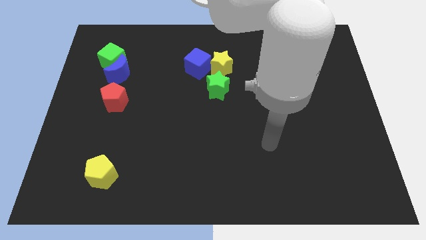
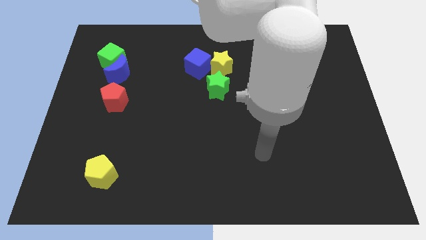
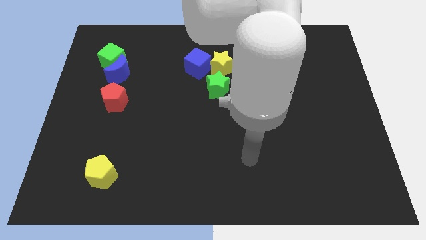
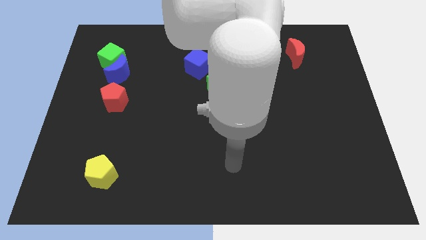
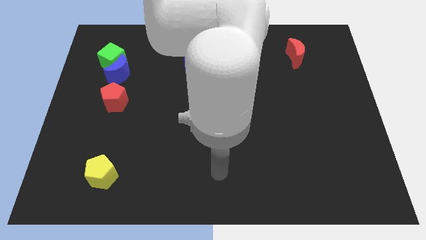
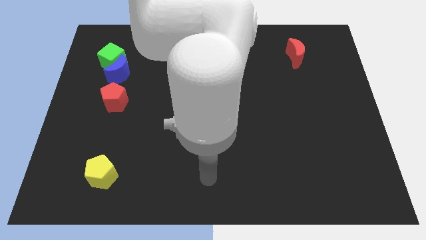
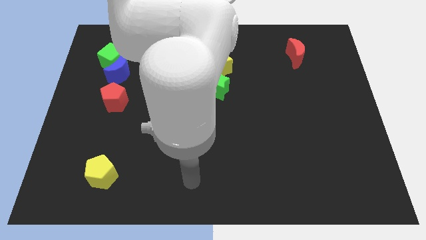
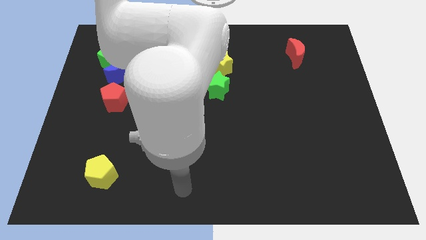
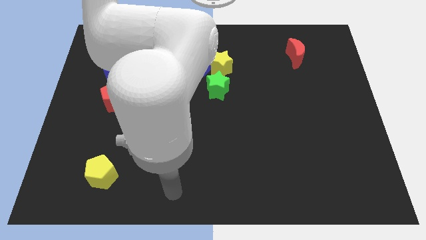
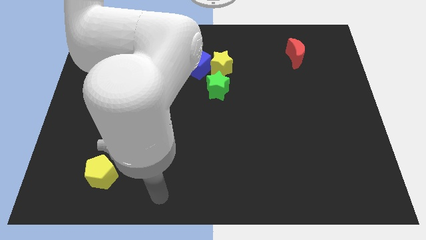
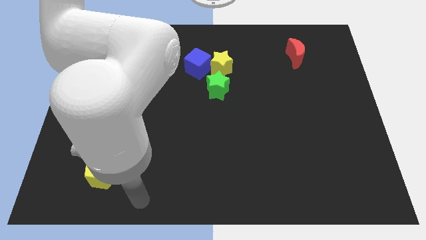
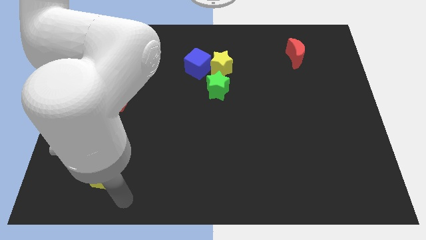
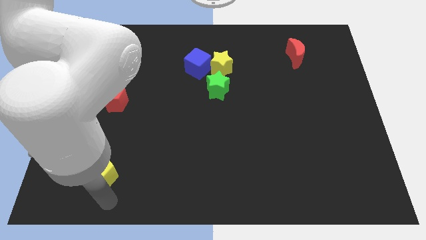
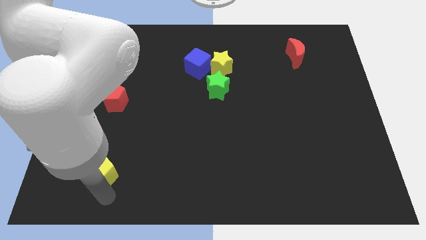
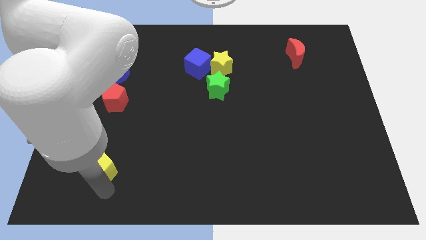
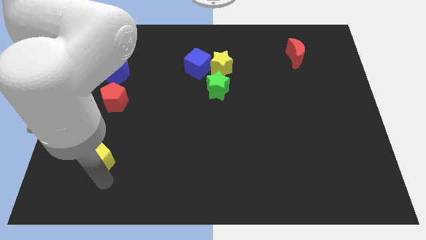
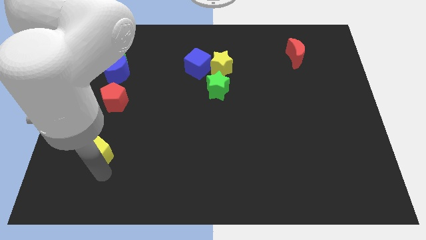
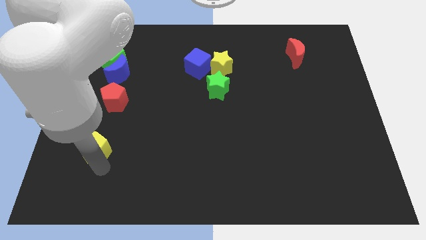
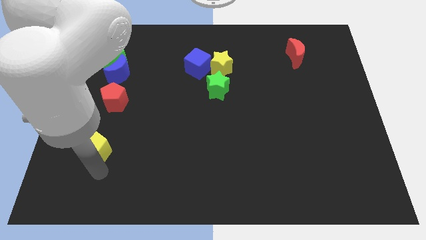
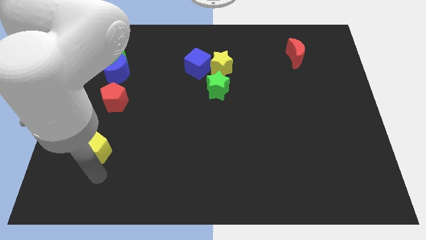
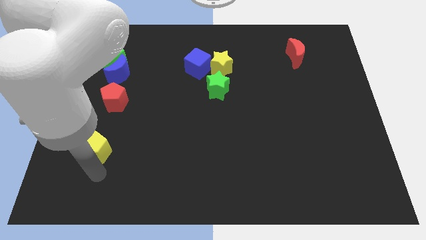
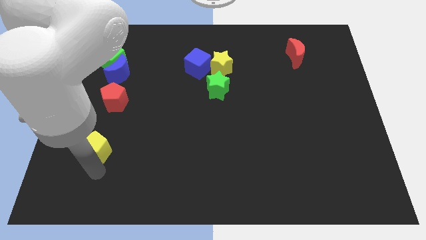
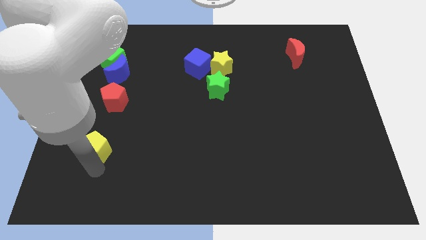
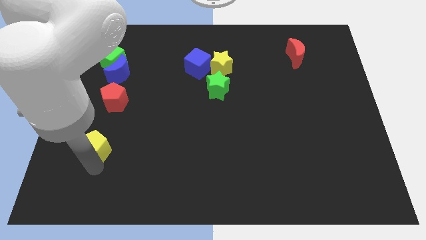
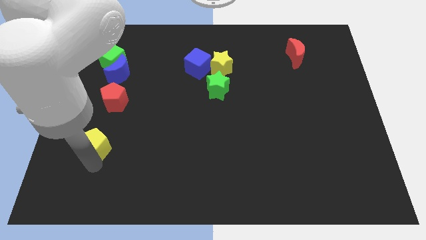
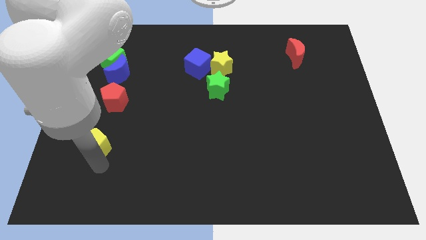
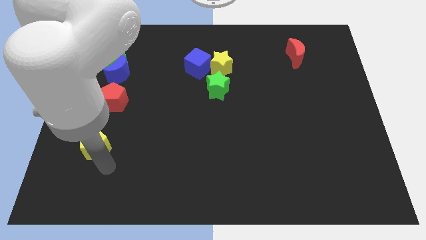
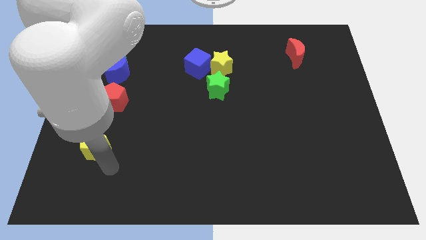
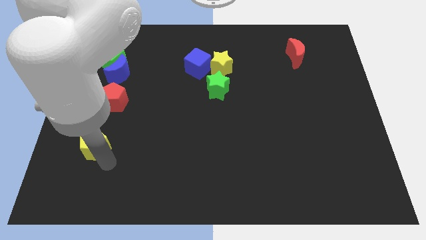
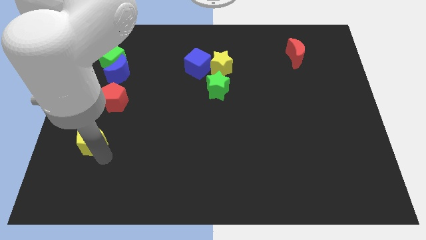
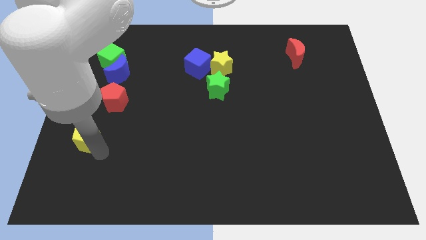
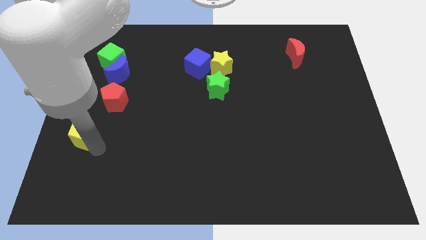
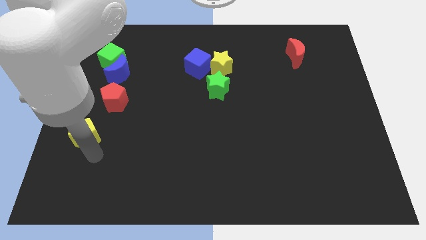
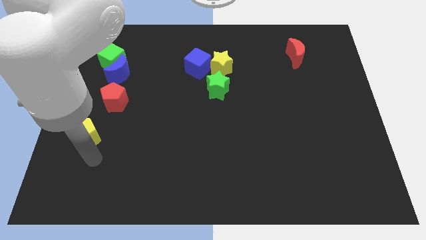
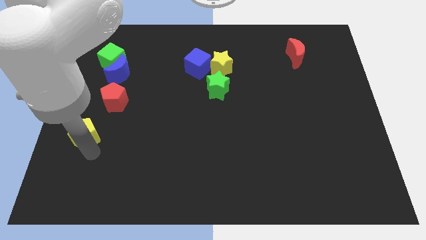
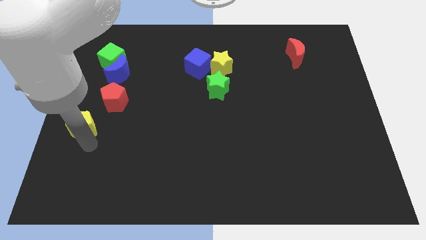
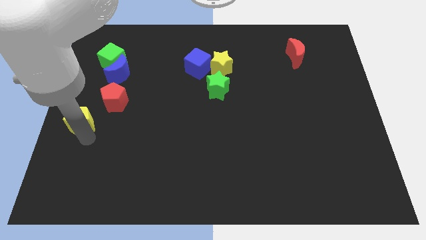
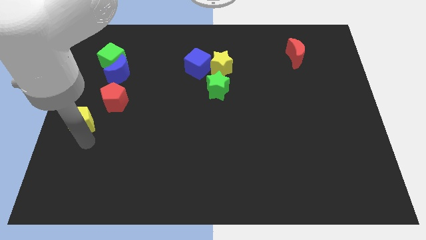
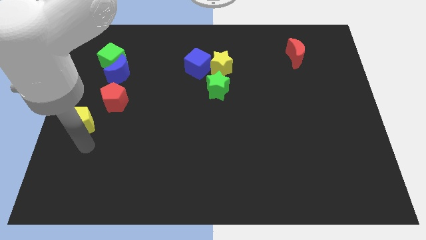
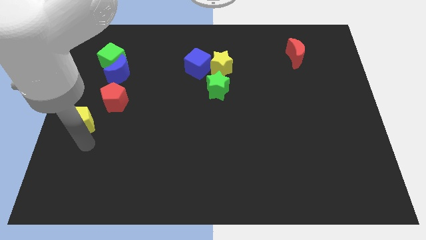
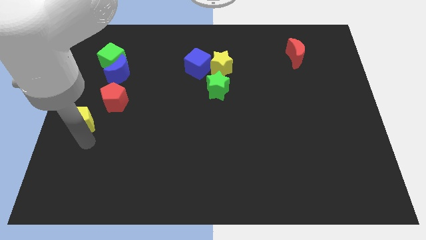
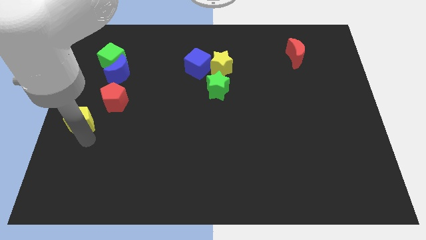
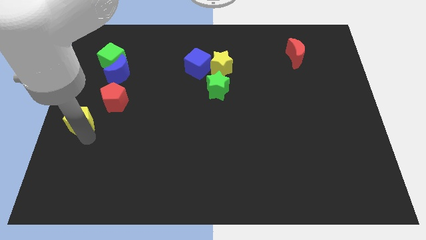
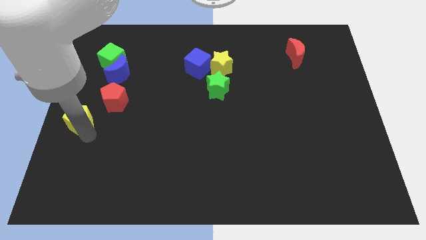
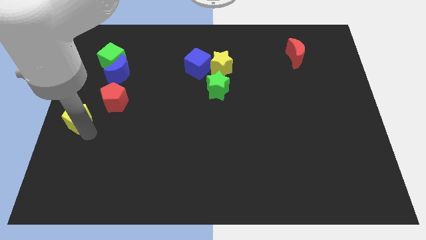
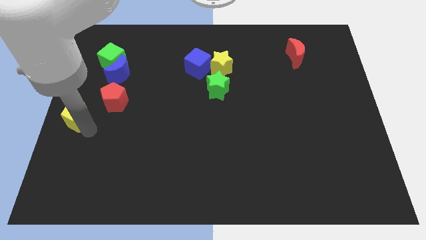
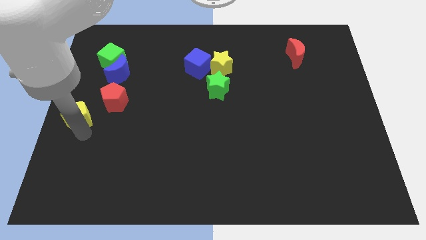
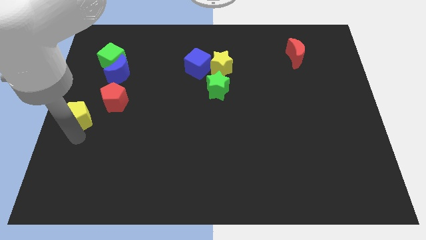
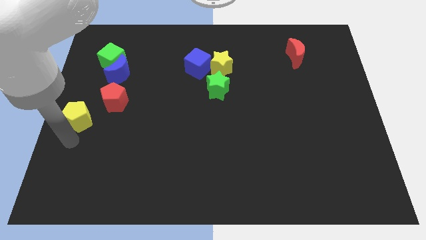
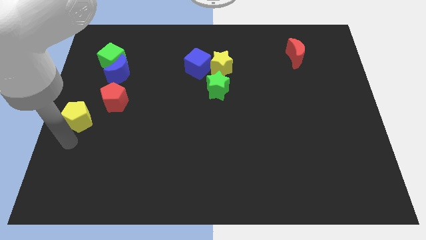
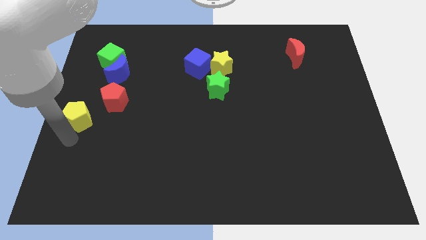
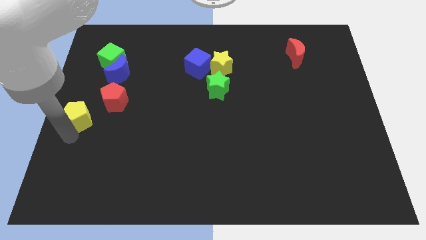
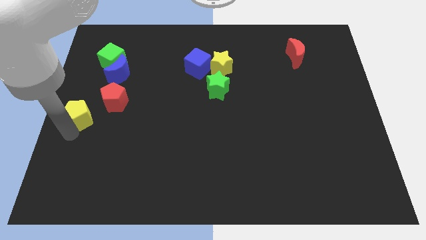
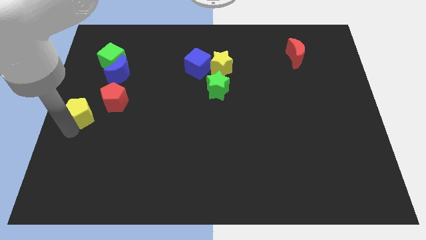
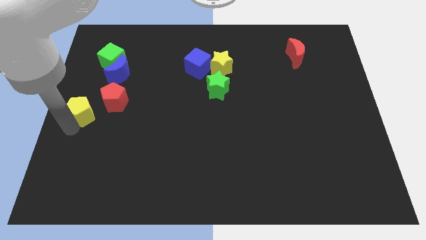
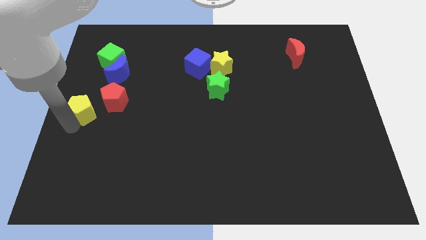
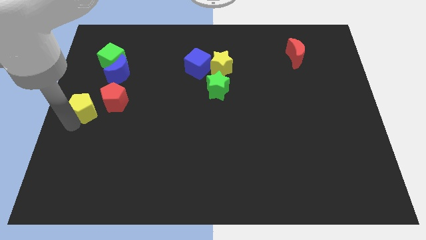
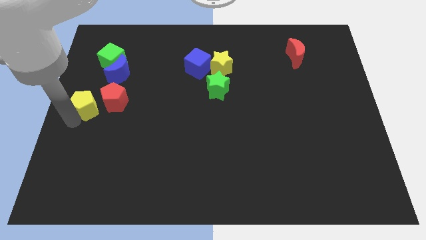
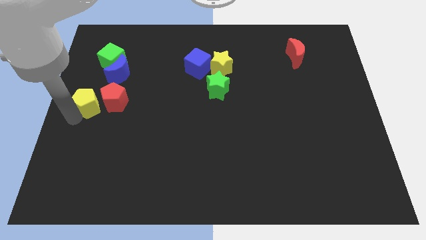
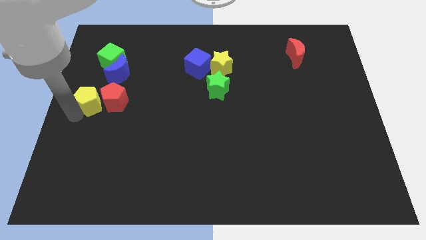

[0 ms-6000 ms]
push the yellow pentagon to the top left side of the red pentagon

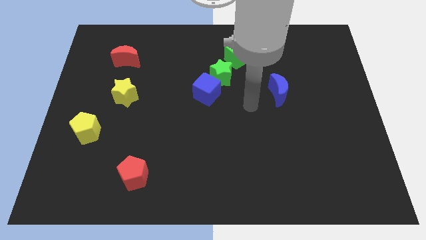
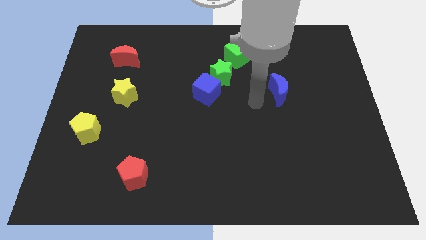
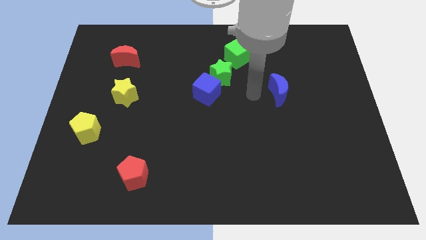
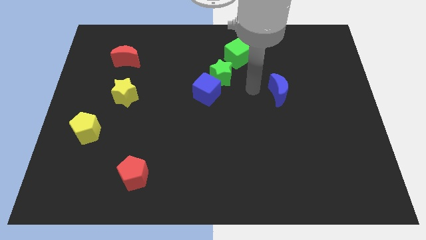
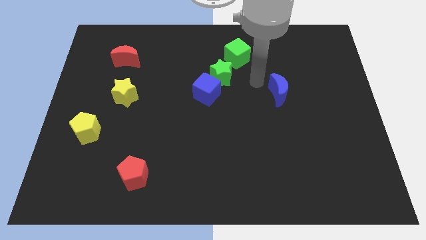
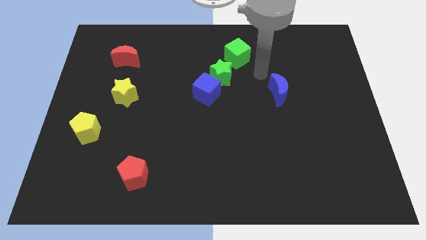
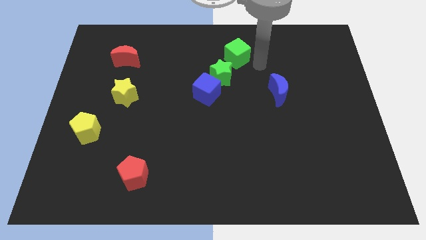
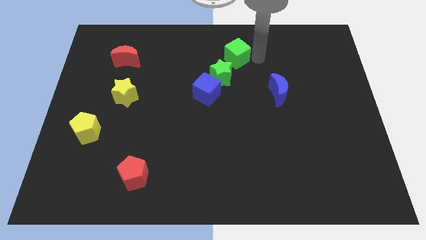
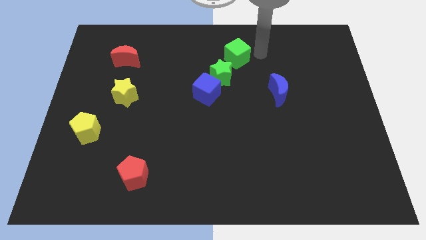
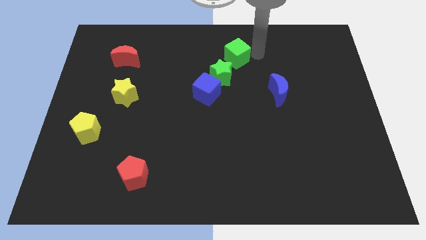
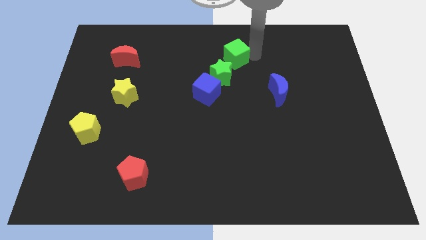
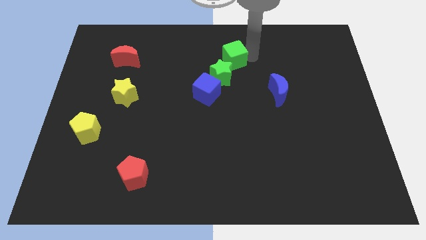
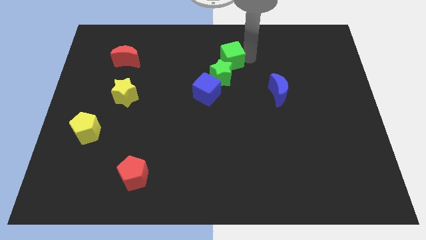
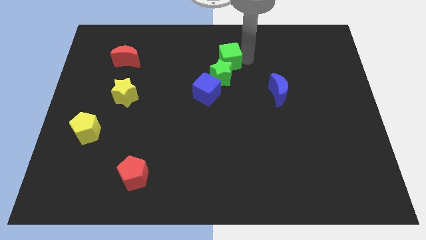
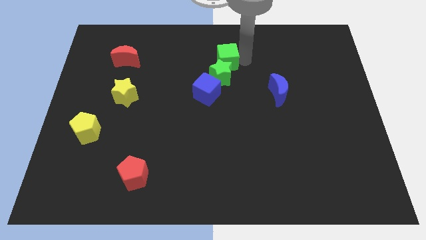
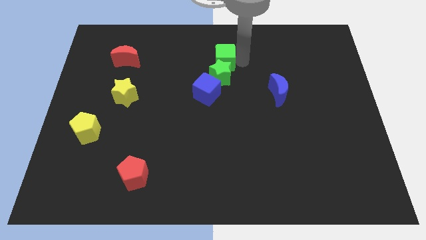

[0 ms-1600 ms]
slide the green cube above the blue cube
